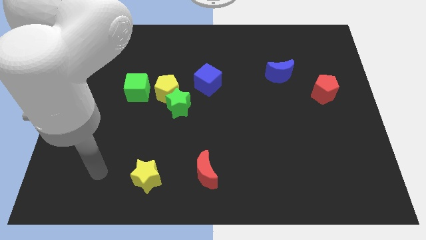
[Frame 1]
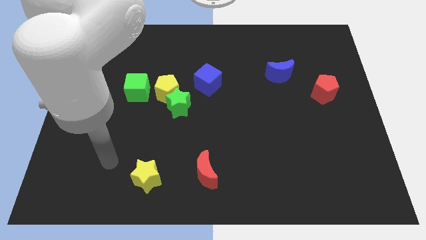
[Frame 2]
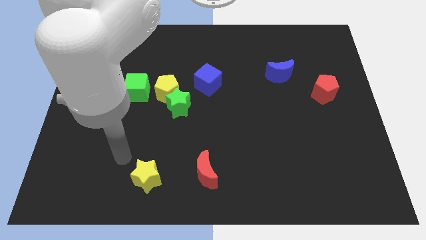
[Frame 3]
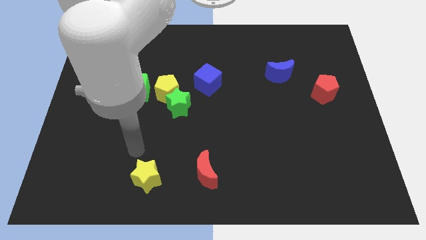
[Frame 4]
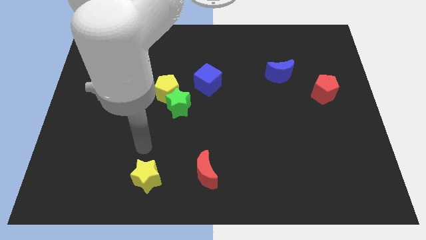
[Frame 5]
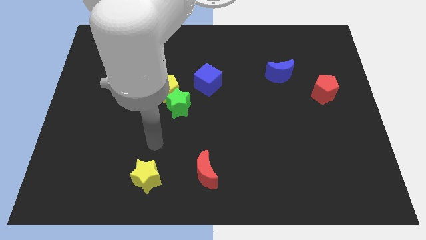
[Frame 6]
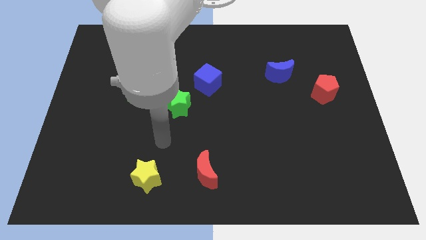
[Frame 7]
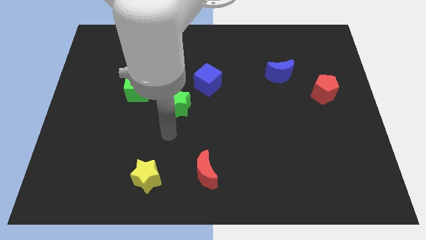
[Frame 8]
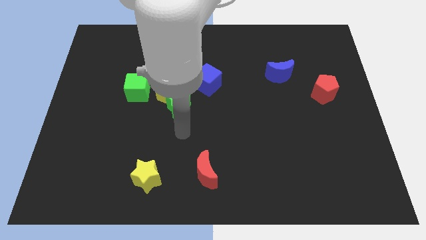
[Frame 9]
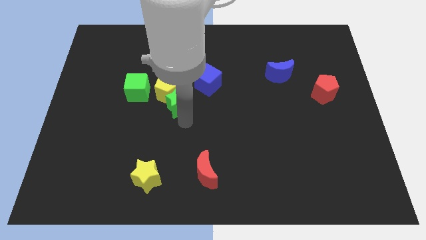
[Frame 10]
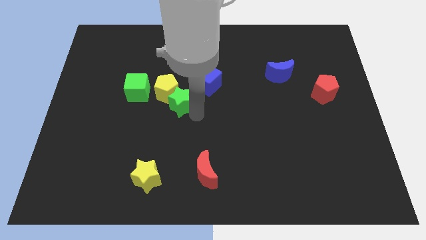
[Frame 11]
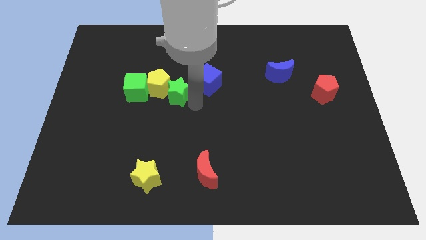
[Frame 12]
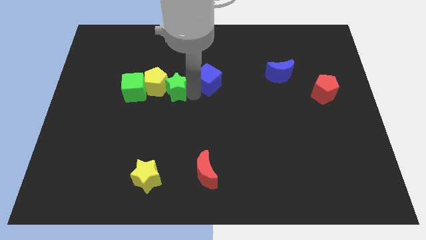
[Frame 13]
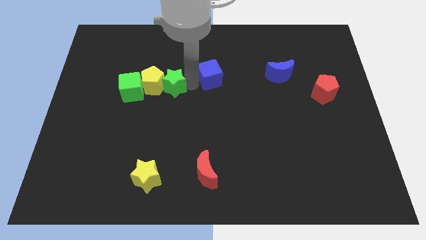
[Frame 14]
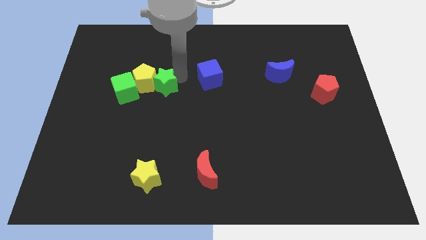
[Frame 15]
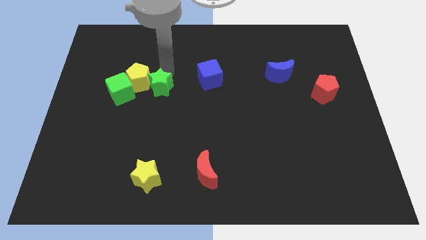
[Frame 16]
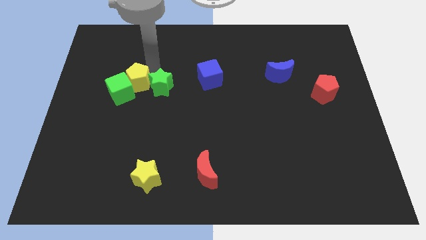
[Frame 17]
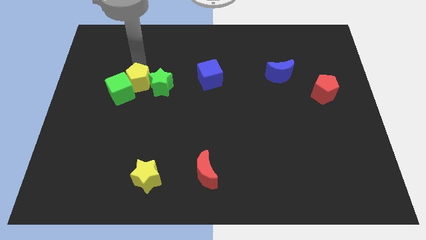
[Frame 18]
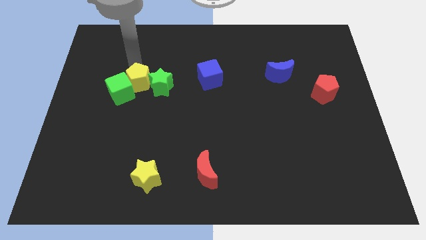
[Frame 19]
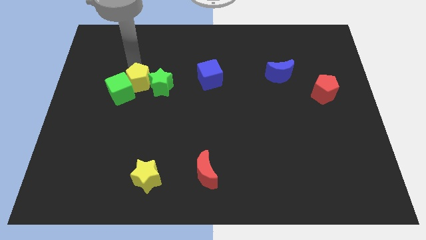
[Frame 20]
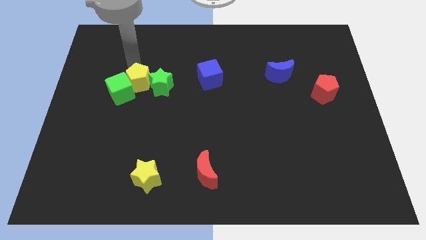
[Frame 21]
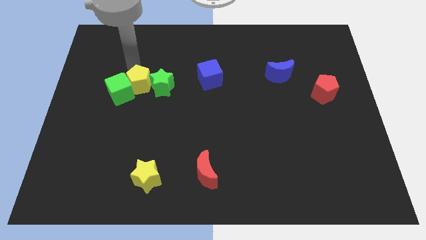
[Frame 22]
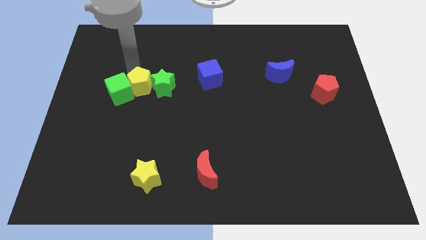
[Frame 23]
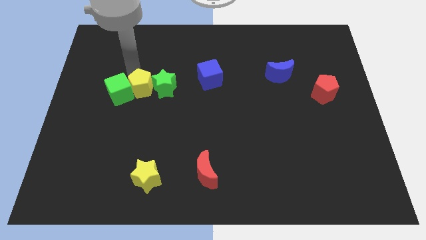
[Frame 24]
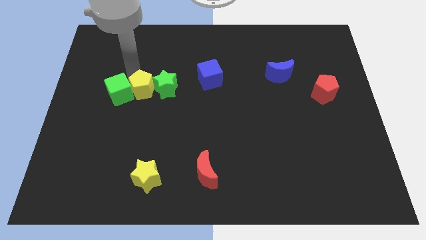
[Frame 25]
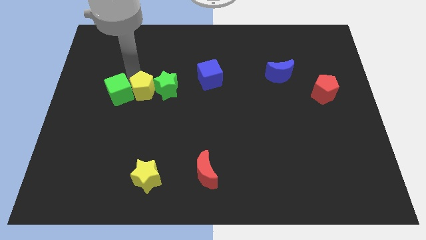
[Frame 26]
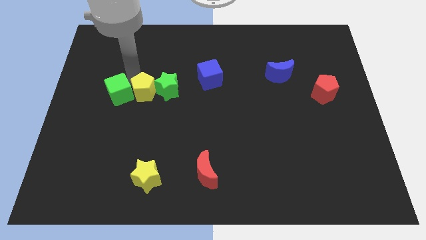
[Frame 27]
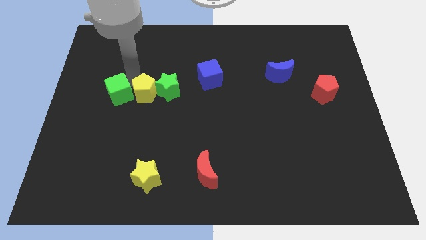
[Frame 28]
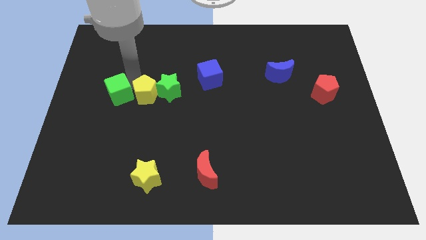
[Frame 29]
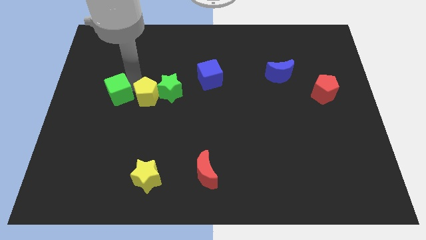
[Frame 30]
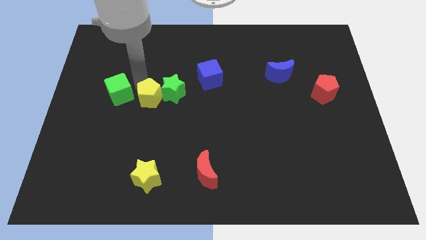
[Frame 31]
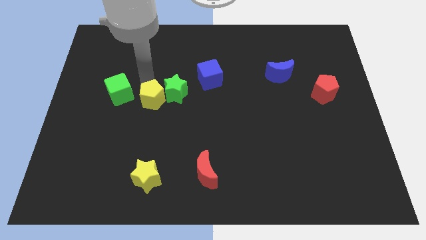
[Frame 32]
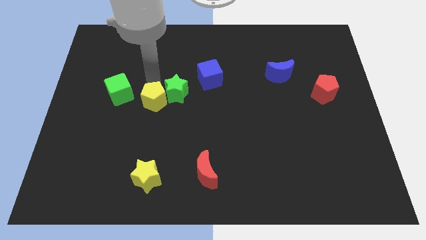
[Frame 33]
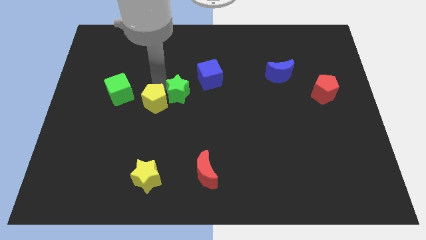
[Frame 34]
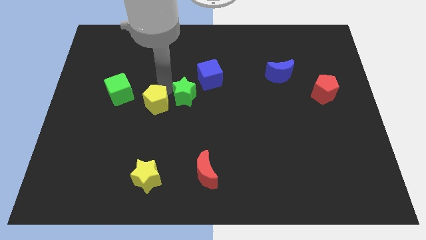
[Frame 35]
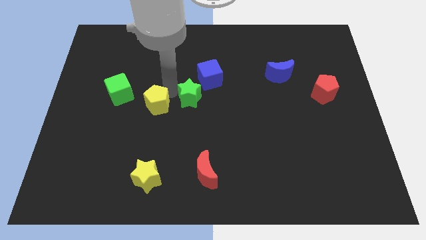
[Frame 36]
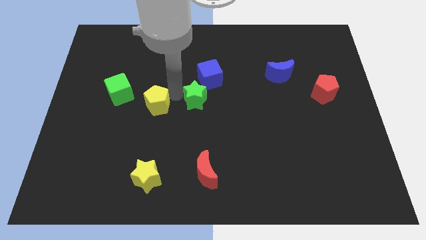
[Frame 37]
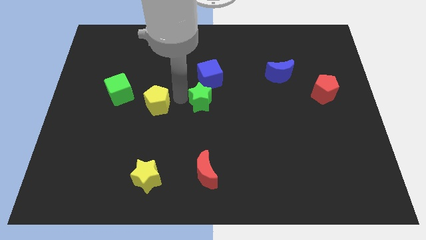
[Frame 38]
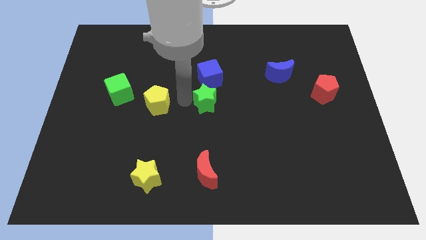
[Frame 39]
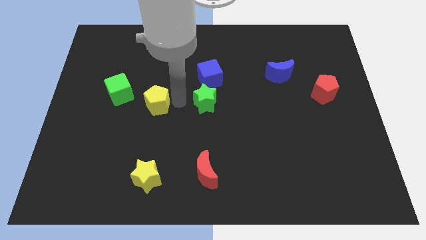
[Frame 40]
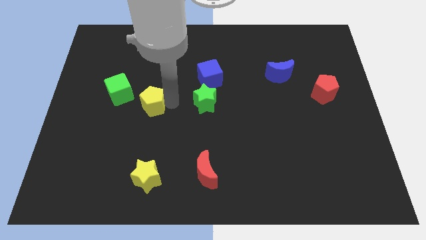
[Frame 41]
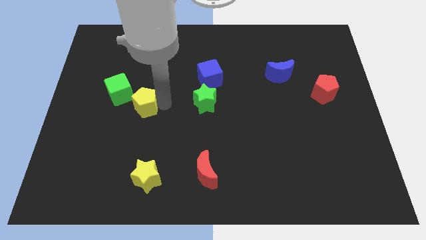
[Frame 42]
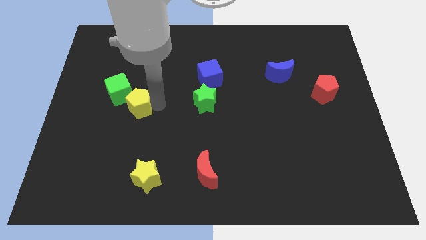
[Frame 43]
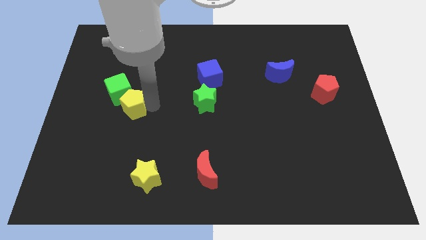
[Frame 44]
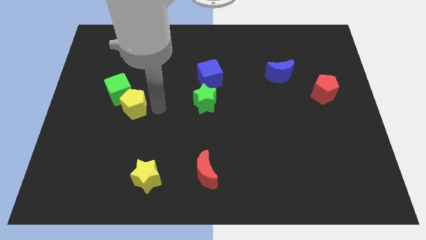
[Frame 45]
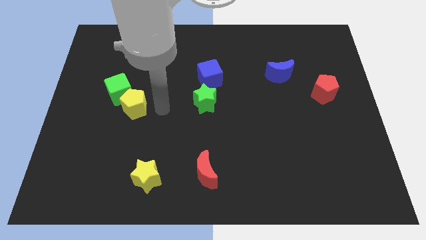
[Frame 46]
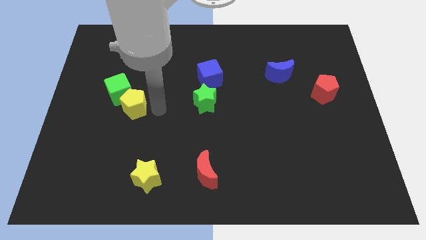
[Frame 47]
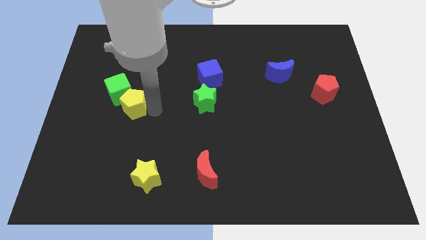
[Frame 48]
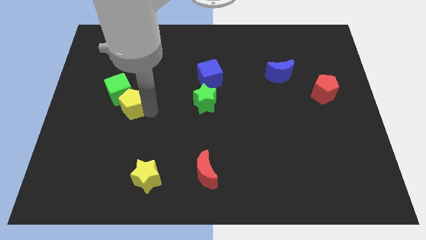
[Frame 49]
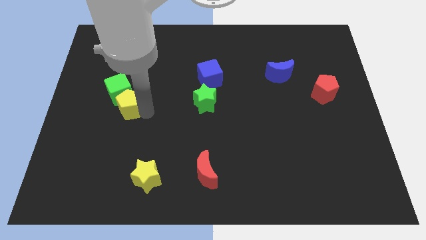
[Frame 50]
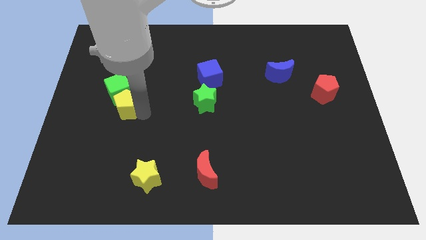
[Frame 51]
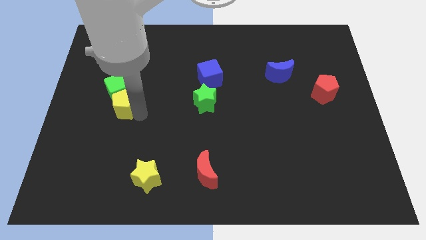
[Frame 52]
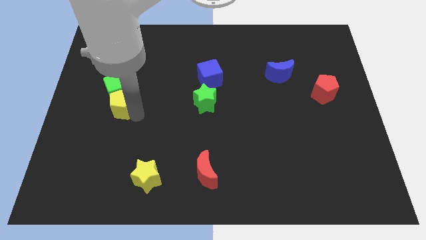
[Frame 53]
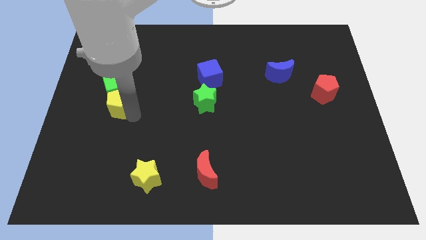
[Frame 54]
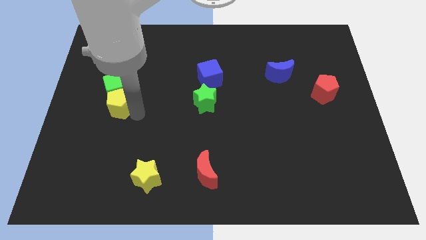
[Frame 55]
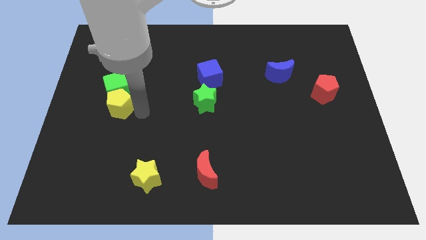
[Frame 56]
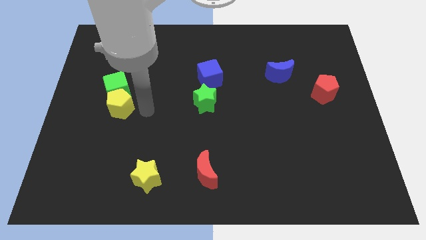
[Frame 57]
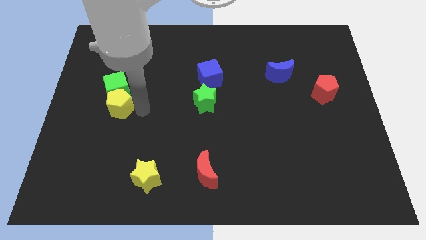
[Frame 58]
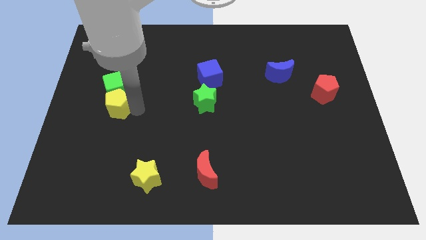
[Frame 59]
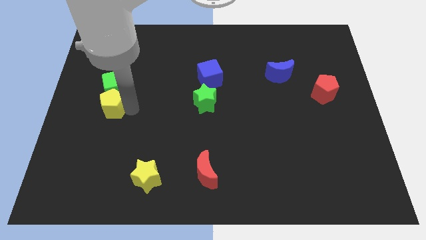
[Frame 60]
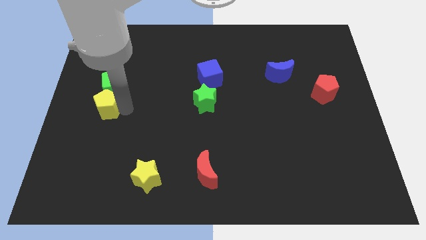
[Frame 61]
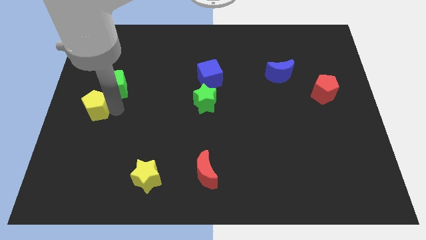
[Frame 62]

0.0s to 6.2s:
push the yellow pentagon to the center left
